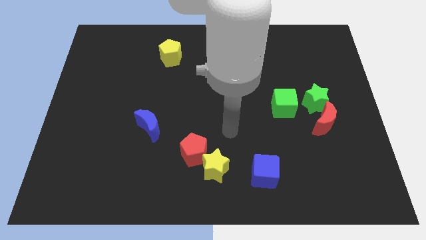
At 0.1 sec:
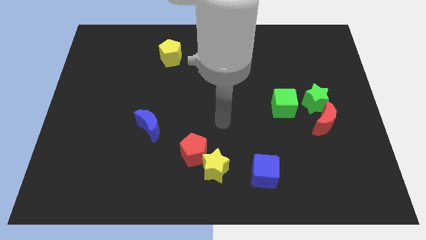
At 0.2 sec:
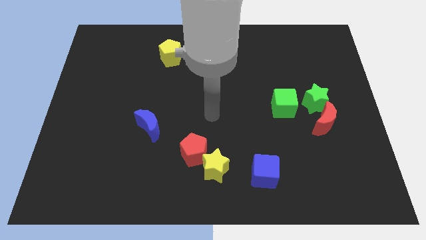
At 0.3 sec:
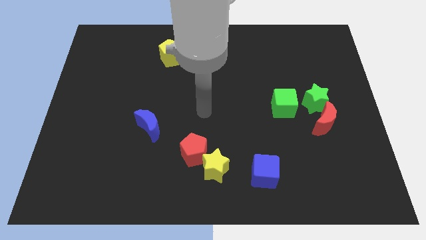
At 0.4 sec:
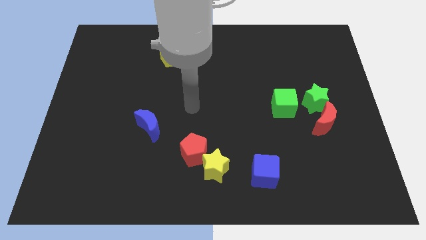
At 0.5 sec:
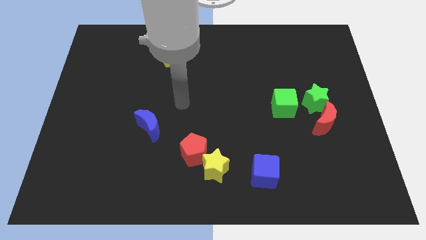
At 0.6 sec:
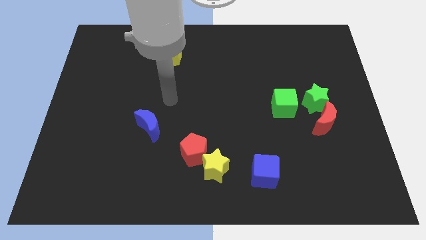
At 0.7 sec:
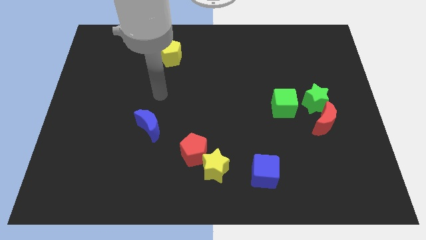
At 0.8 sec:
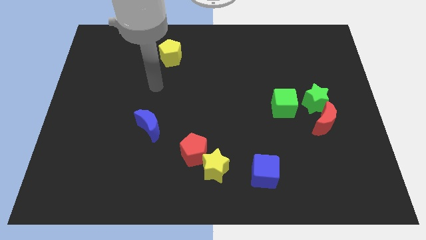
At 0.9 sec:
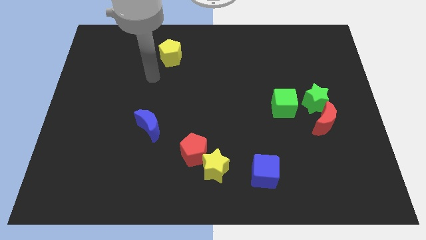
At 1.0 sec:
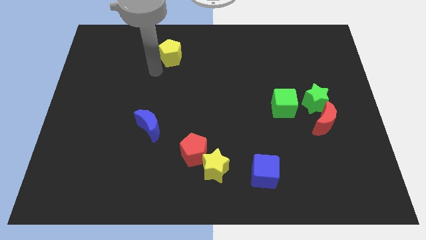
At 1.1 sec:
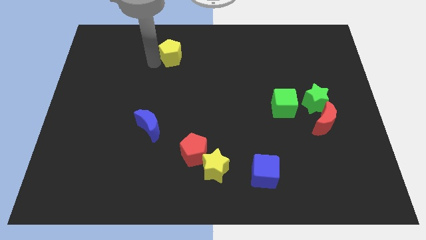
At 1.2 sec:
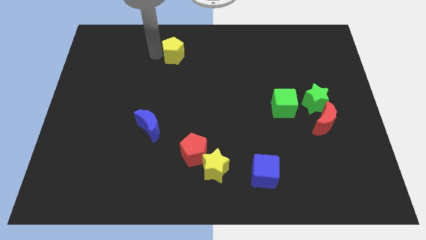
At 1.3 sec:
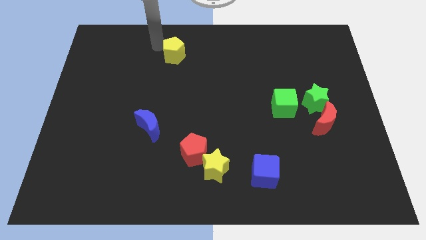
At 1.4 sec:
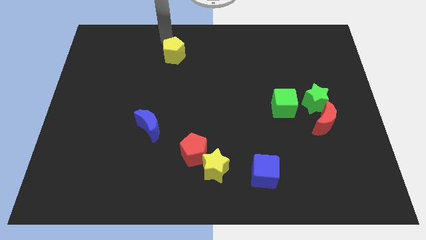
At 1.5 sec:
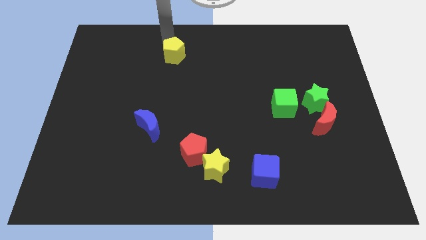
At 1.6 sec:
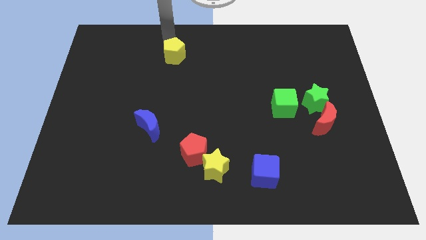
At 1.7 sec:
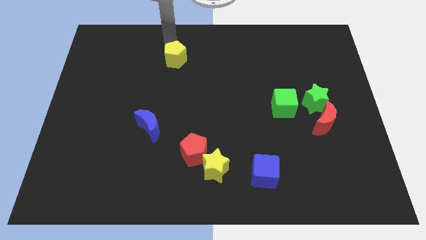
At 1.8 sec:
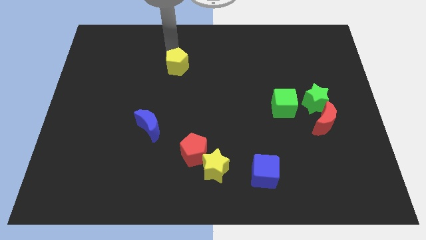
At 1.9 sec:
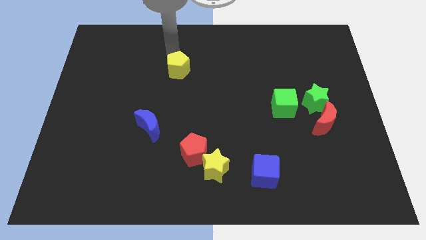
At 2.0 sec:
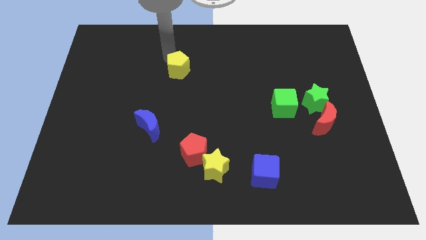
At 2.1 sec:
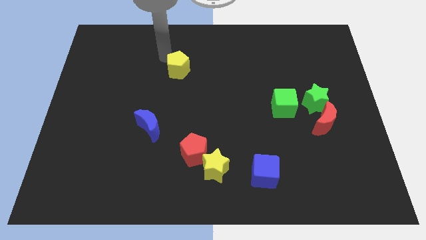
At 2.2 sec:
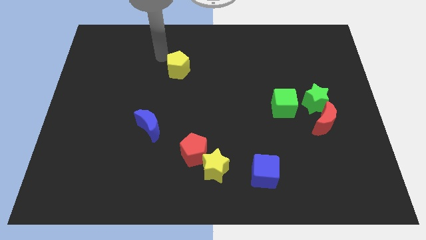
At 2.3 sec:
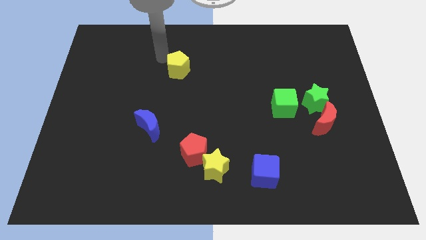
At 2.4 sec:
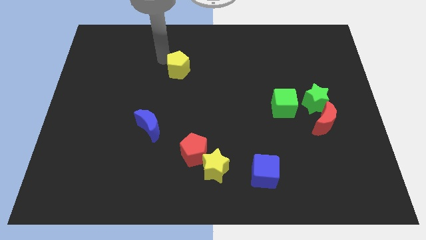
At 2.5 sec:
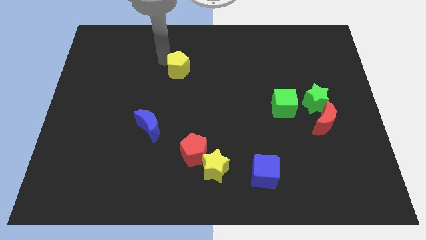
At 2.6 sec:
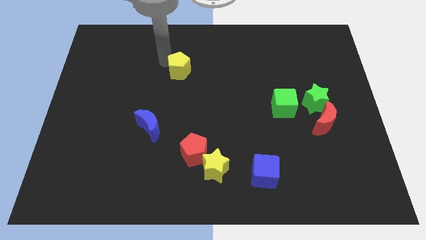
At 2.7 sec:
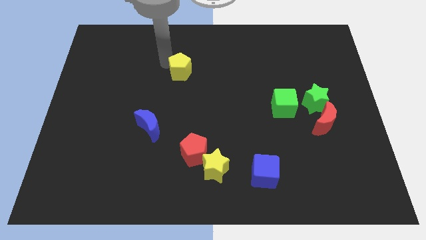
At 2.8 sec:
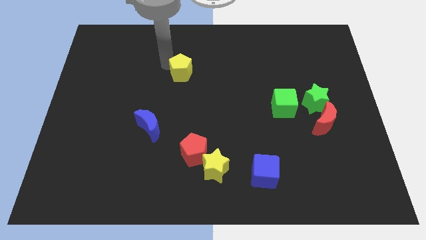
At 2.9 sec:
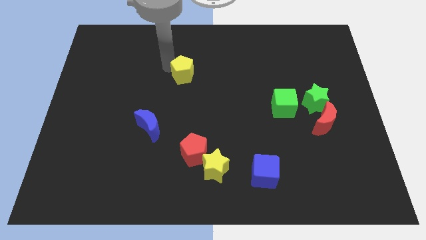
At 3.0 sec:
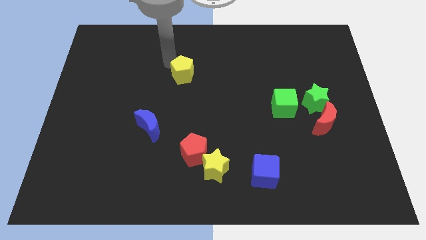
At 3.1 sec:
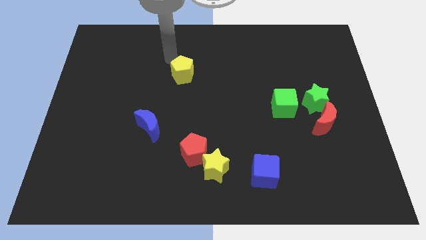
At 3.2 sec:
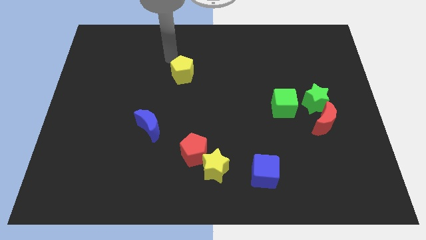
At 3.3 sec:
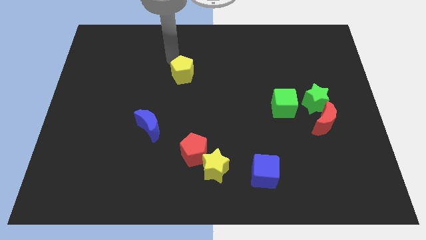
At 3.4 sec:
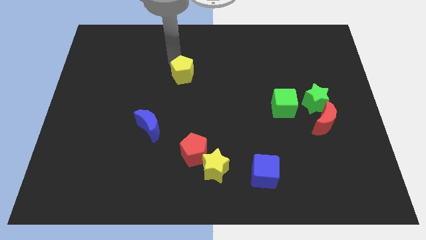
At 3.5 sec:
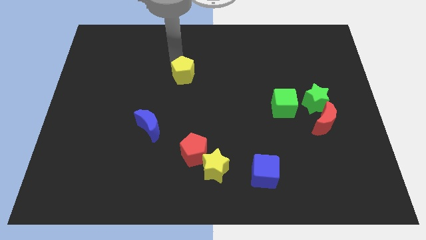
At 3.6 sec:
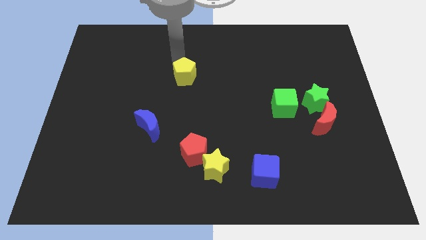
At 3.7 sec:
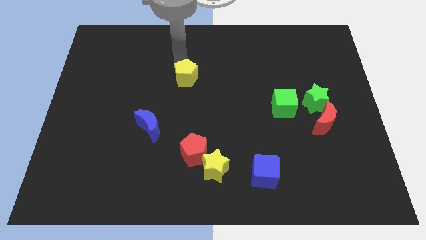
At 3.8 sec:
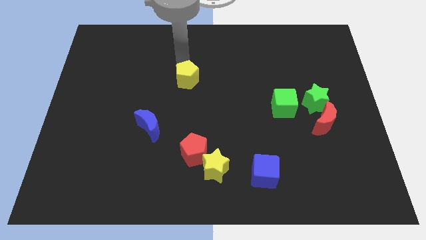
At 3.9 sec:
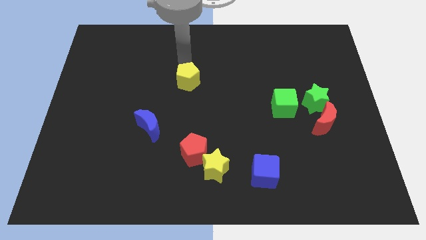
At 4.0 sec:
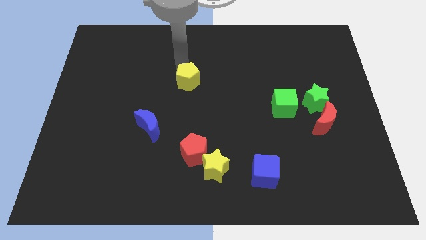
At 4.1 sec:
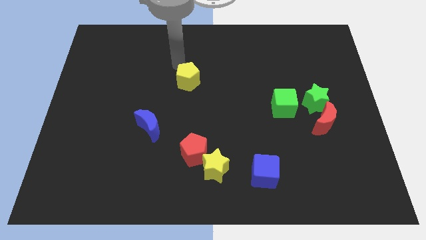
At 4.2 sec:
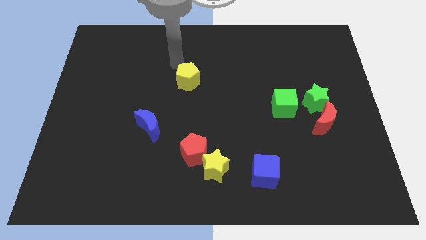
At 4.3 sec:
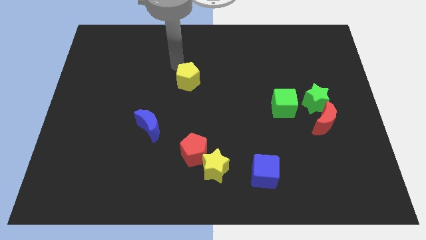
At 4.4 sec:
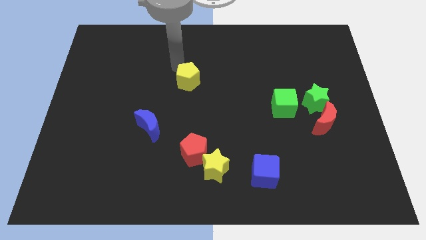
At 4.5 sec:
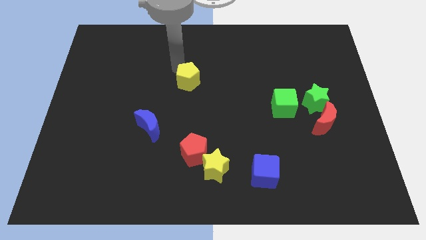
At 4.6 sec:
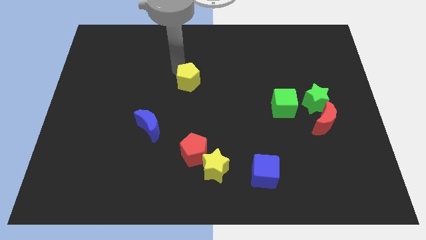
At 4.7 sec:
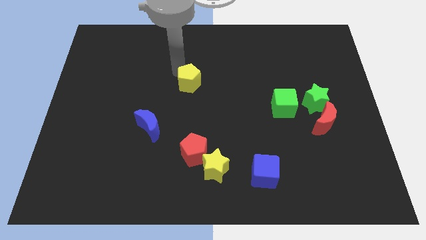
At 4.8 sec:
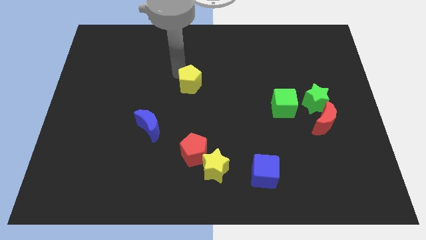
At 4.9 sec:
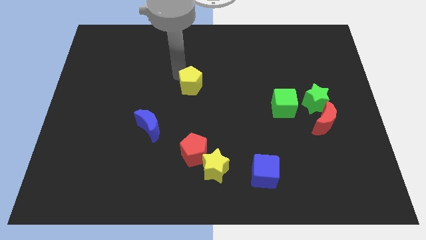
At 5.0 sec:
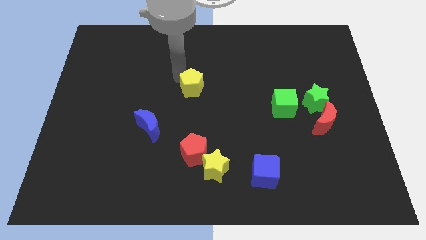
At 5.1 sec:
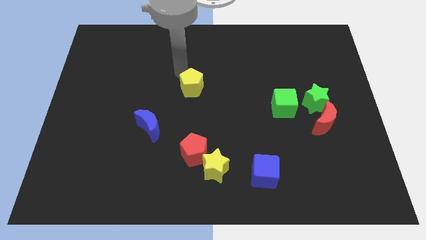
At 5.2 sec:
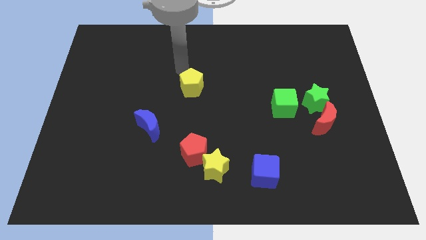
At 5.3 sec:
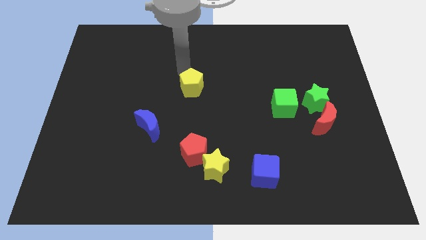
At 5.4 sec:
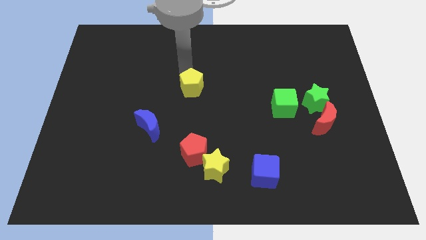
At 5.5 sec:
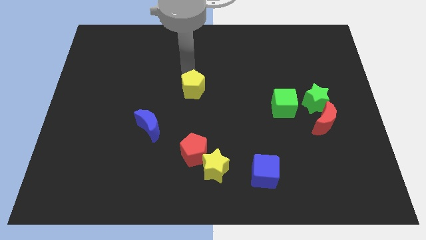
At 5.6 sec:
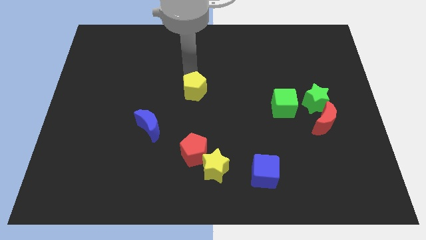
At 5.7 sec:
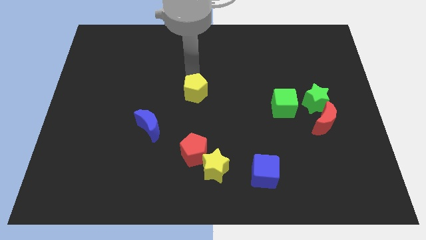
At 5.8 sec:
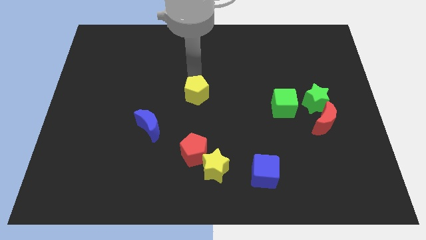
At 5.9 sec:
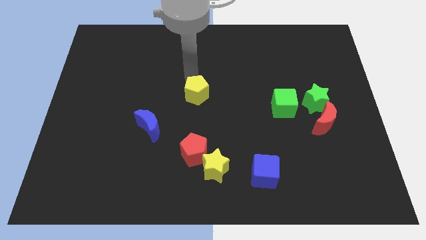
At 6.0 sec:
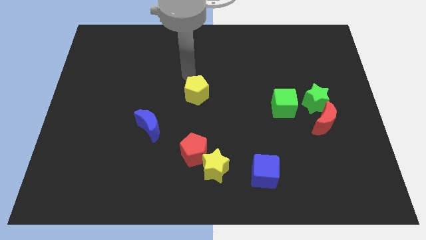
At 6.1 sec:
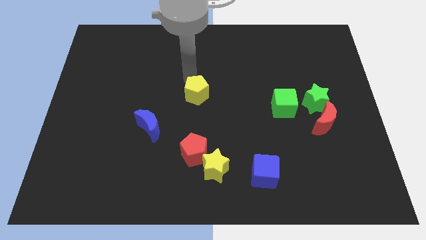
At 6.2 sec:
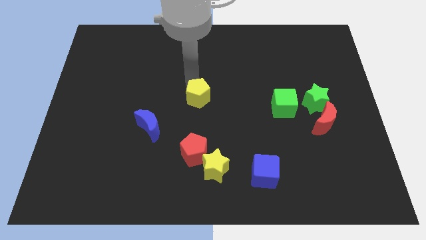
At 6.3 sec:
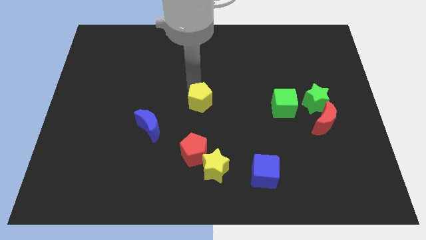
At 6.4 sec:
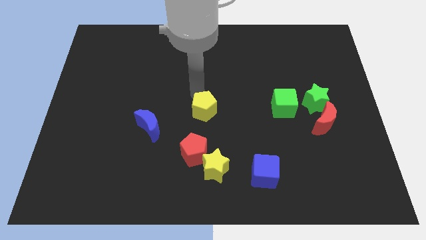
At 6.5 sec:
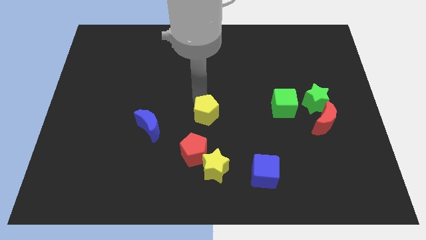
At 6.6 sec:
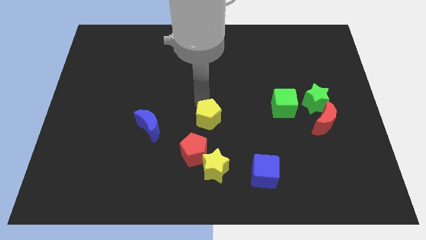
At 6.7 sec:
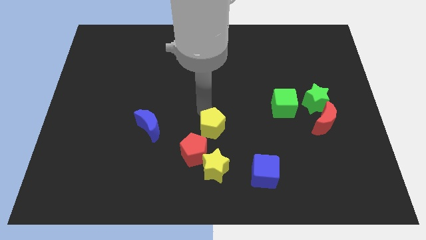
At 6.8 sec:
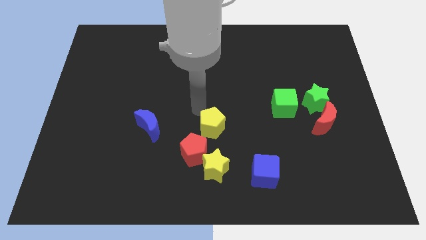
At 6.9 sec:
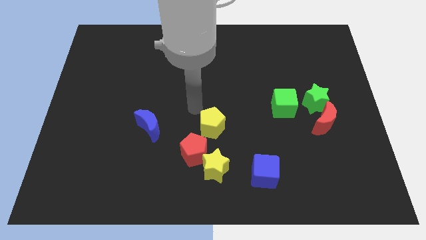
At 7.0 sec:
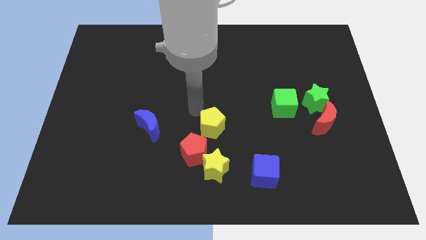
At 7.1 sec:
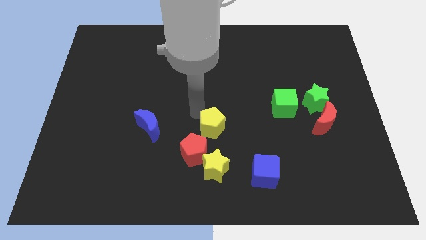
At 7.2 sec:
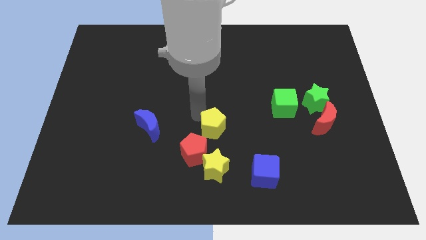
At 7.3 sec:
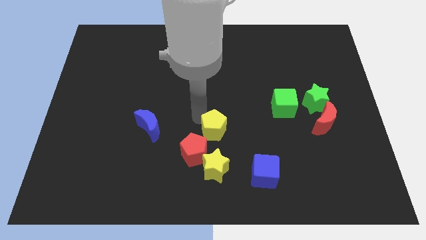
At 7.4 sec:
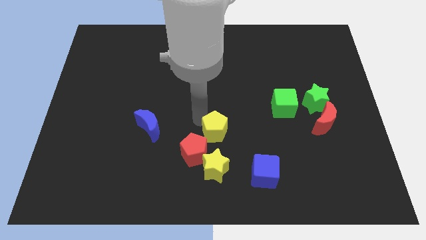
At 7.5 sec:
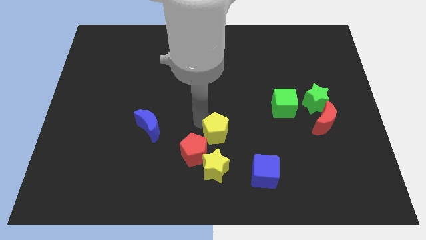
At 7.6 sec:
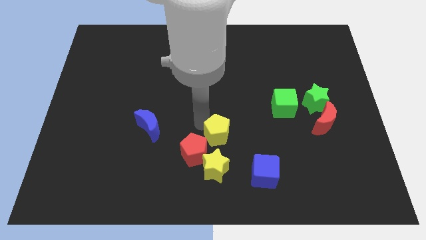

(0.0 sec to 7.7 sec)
push the yellow pentagon to the right side of the red pentagon
